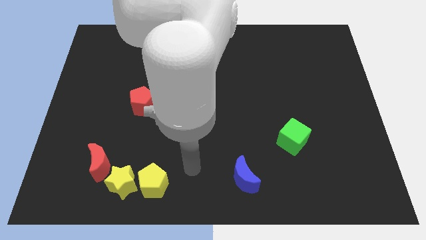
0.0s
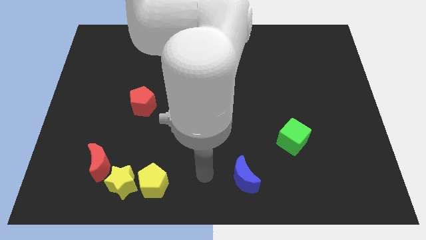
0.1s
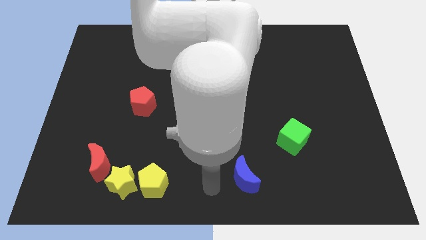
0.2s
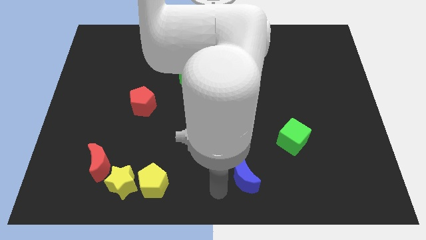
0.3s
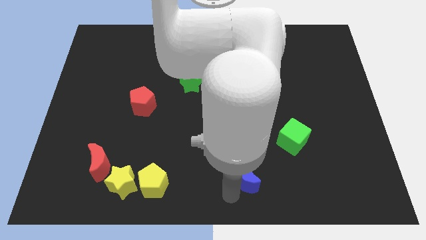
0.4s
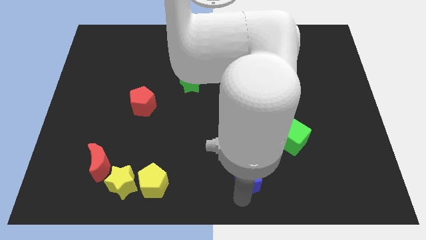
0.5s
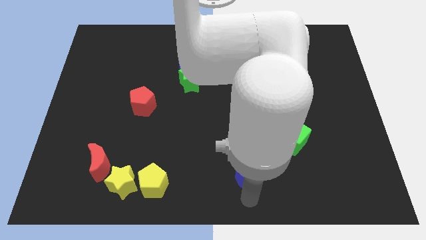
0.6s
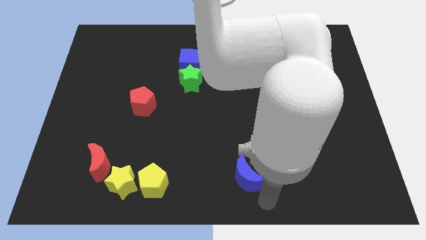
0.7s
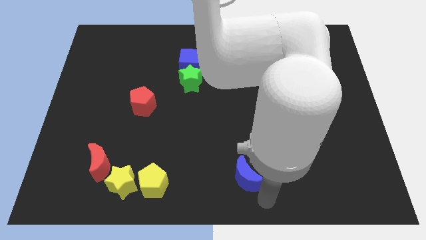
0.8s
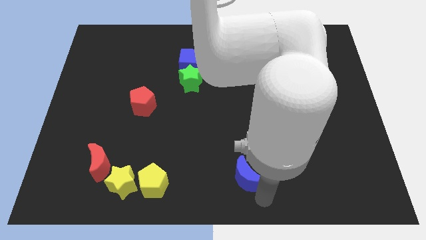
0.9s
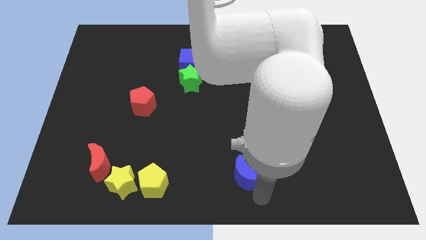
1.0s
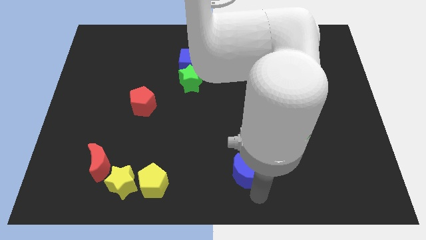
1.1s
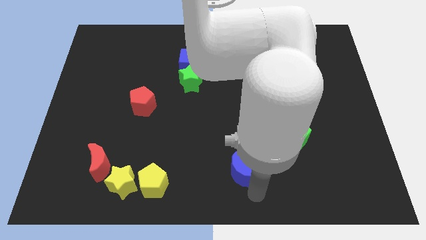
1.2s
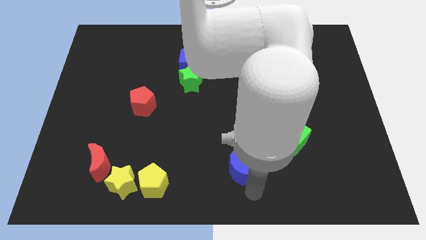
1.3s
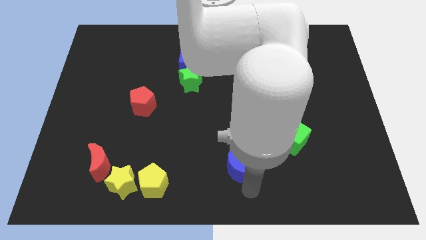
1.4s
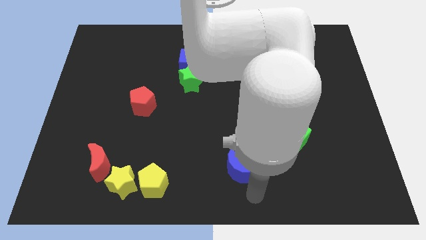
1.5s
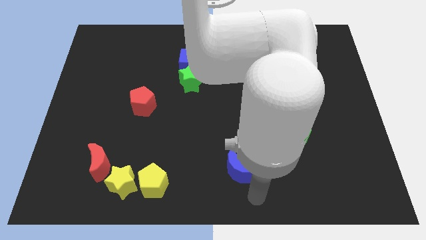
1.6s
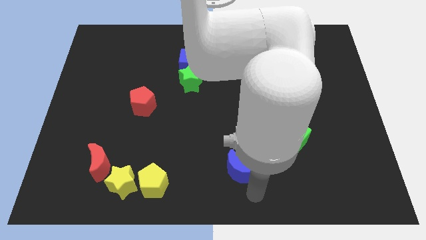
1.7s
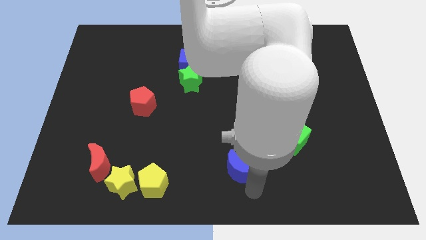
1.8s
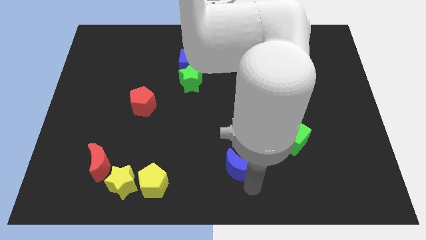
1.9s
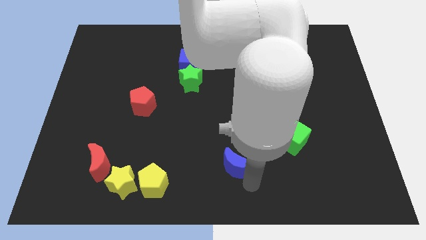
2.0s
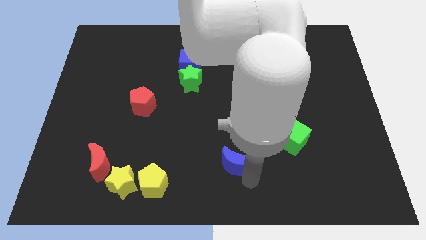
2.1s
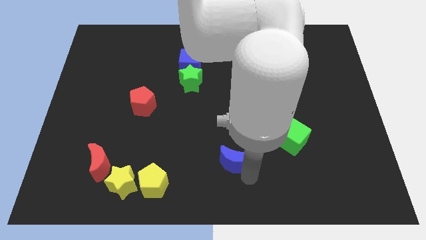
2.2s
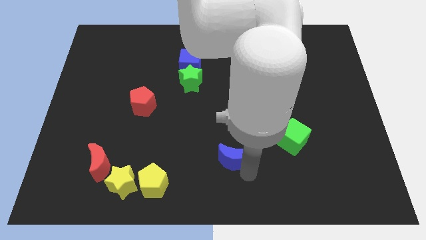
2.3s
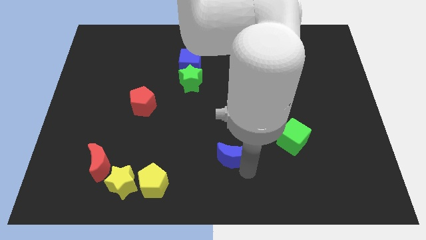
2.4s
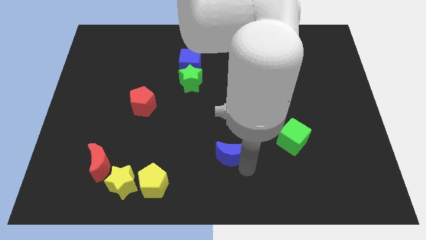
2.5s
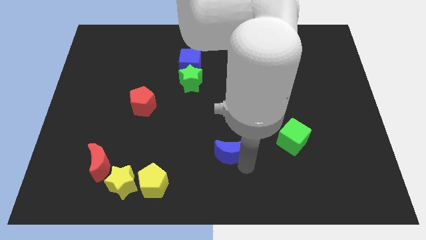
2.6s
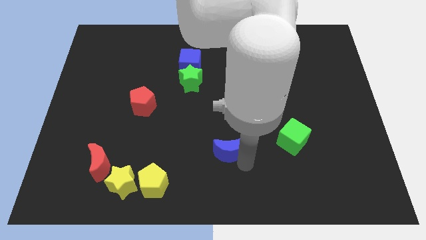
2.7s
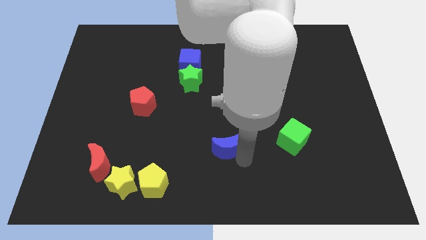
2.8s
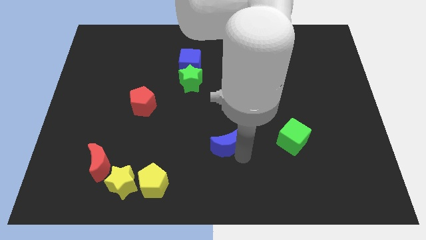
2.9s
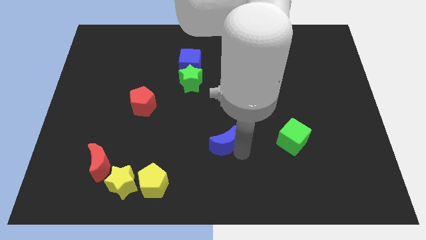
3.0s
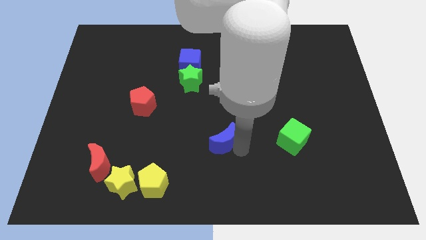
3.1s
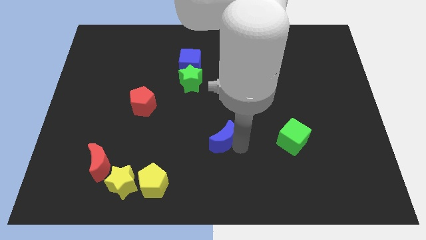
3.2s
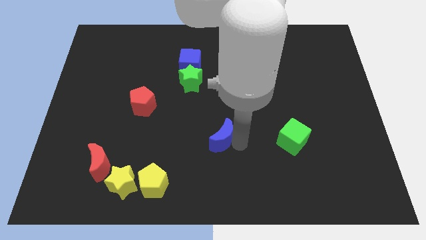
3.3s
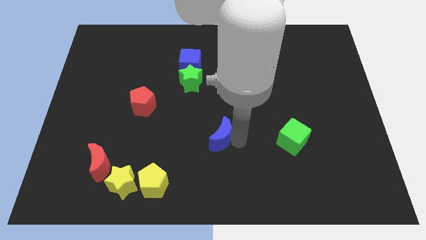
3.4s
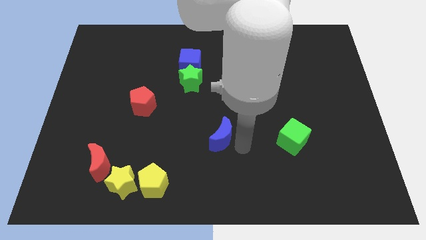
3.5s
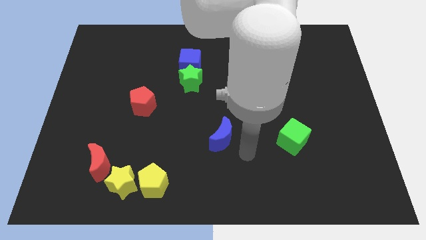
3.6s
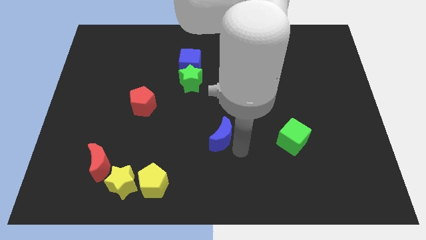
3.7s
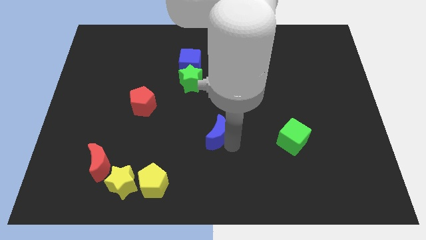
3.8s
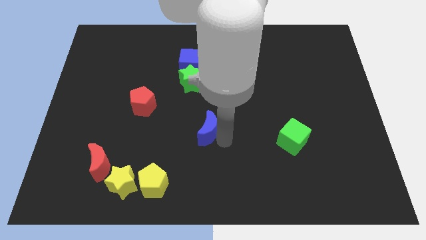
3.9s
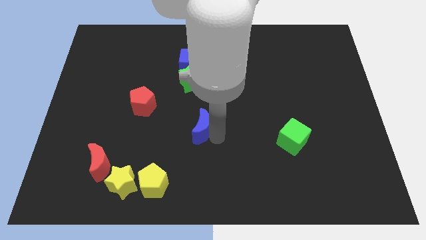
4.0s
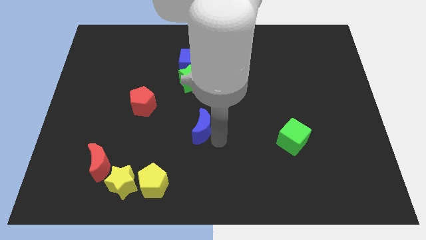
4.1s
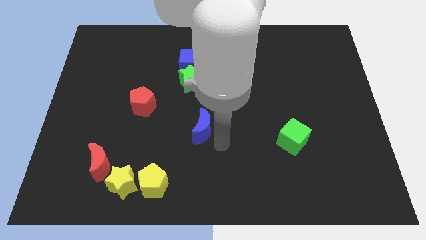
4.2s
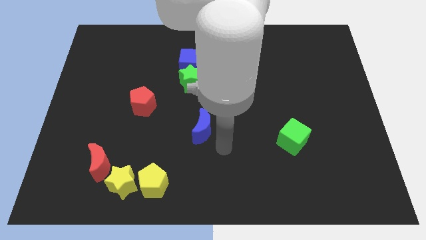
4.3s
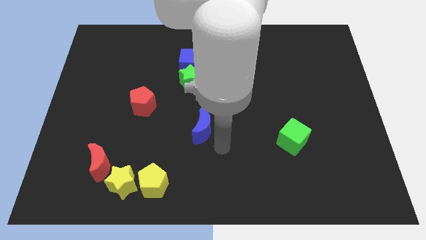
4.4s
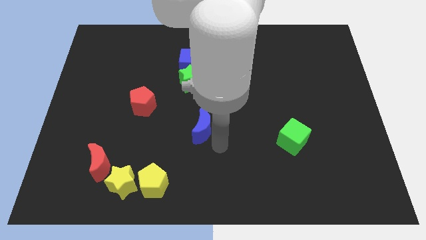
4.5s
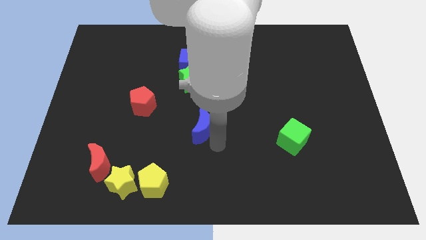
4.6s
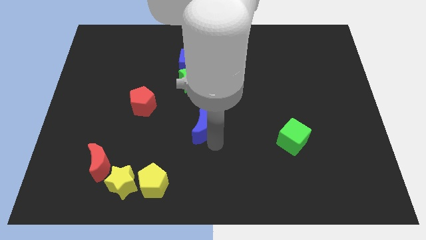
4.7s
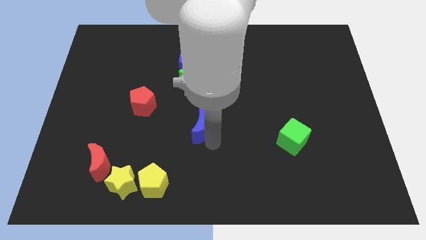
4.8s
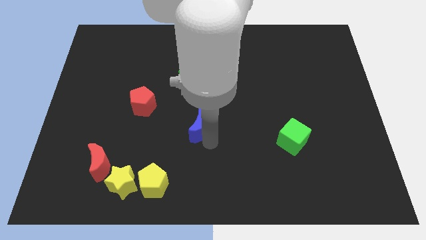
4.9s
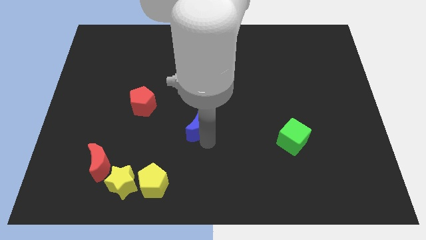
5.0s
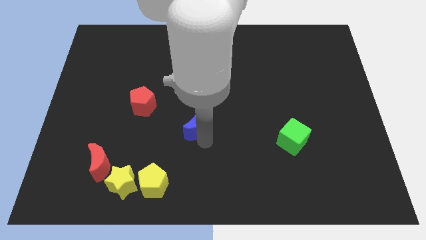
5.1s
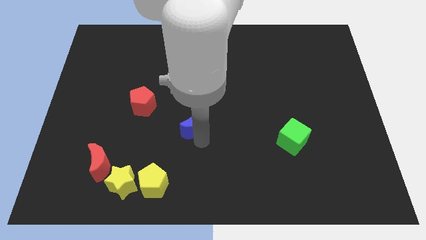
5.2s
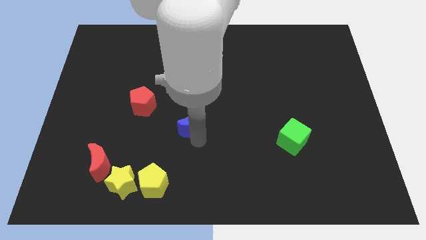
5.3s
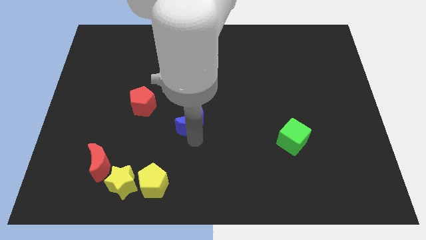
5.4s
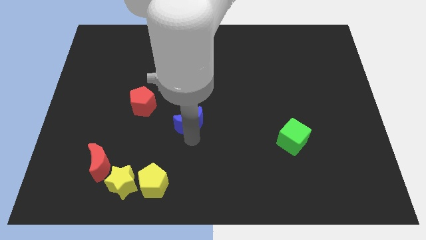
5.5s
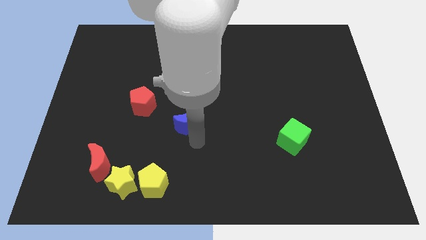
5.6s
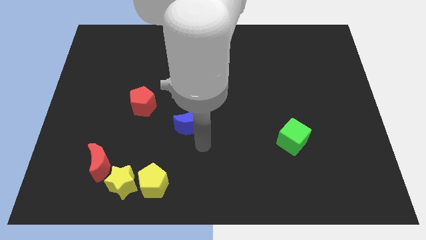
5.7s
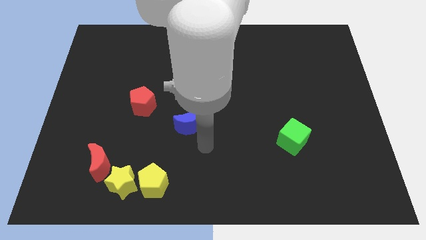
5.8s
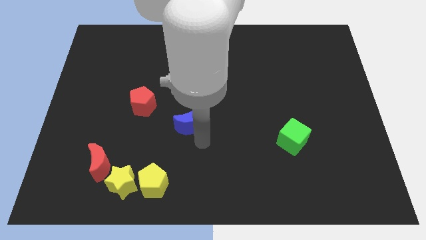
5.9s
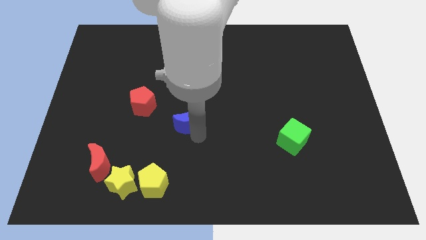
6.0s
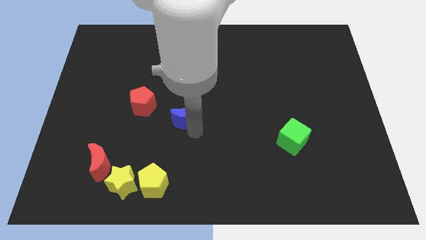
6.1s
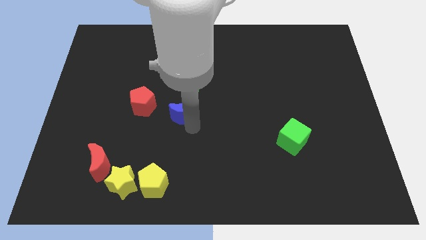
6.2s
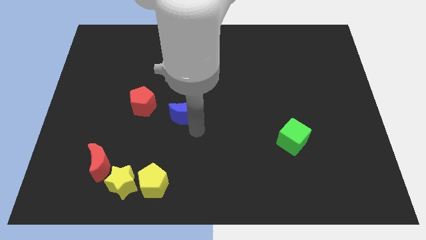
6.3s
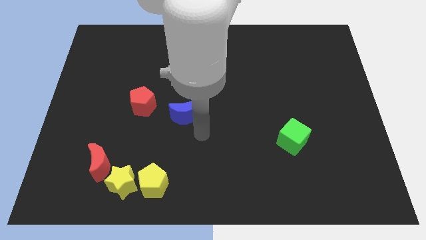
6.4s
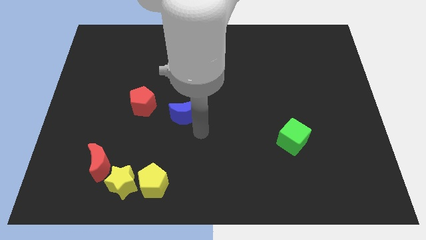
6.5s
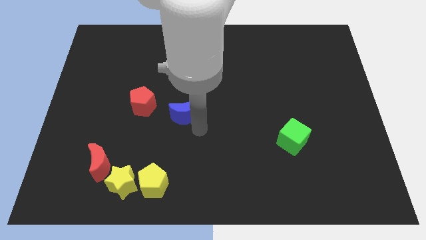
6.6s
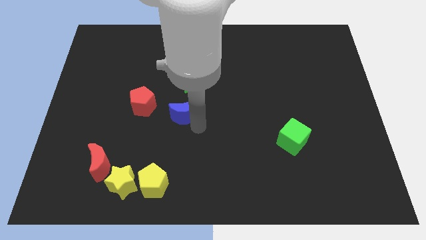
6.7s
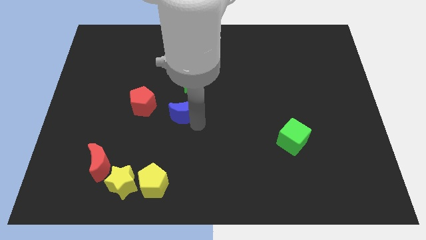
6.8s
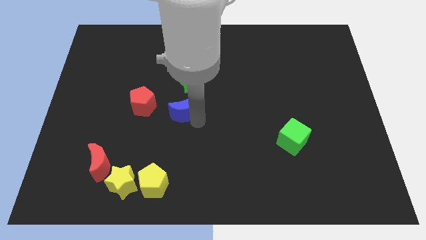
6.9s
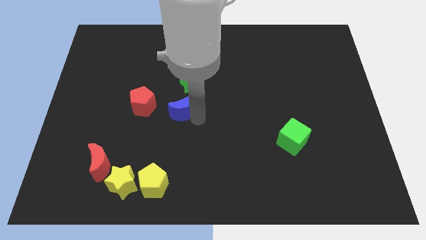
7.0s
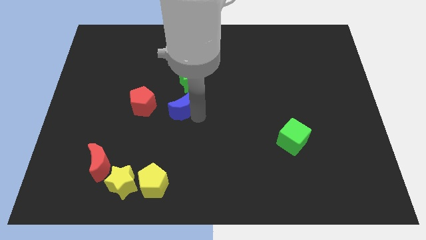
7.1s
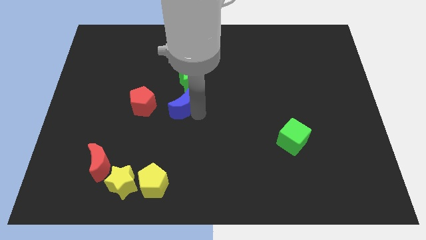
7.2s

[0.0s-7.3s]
slide the blue moon to the bottom left of the green star
